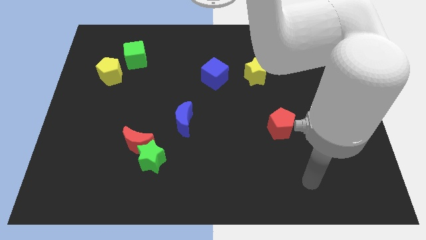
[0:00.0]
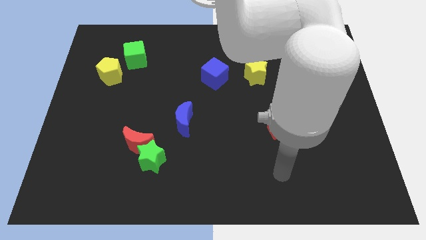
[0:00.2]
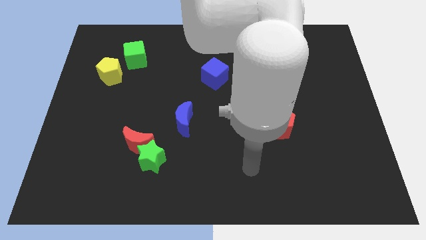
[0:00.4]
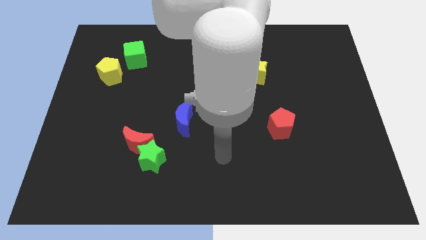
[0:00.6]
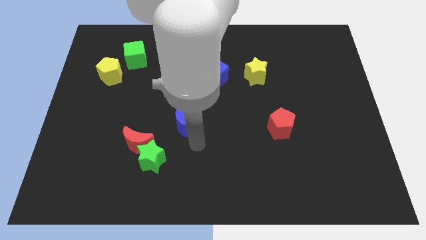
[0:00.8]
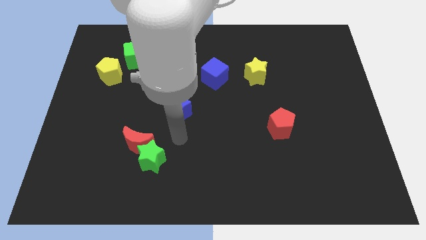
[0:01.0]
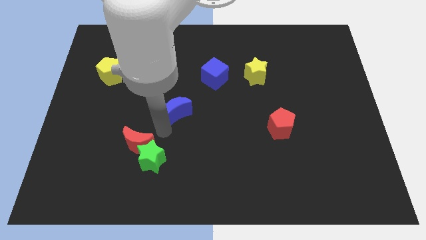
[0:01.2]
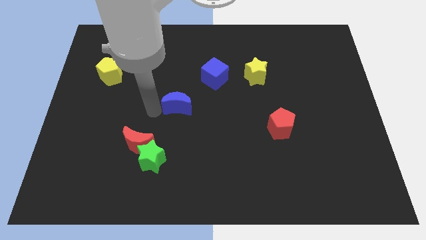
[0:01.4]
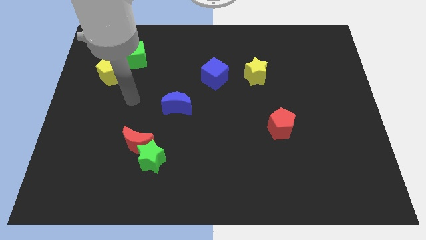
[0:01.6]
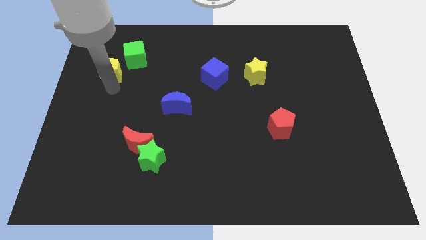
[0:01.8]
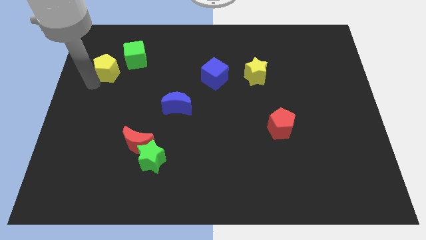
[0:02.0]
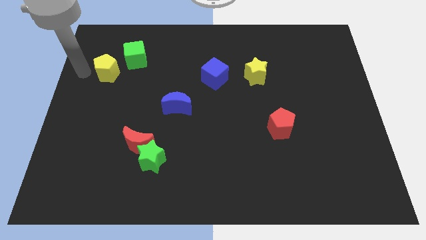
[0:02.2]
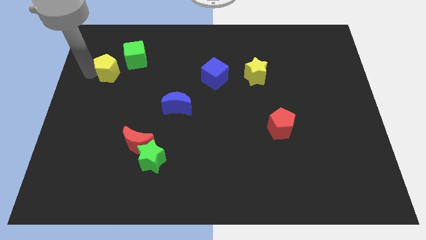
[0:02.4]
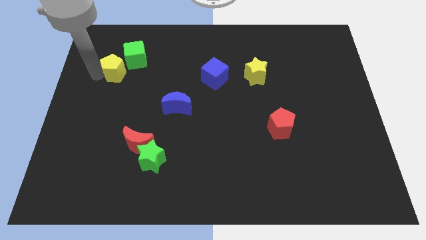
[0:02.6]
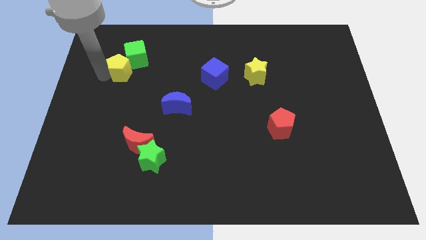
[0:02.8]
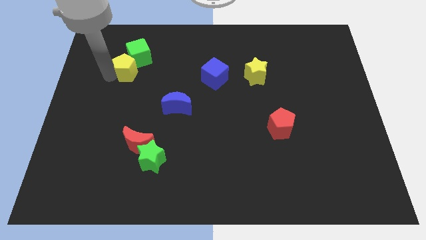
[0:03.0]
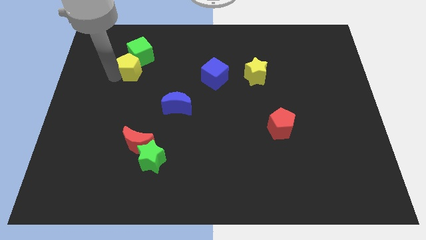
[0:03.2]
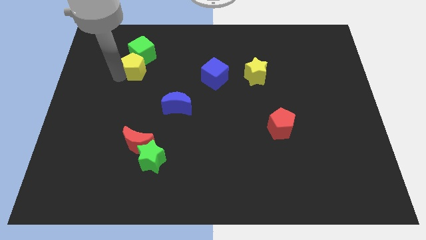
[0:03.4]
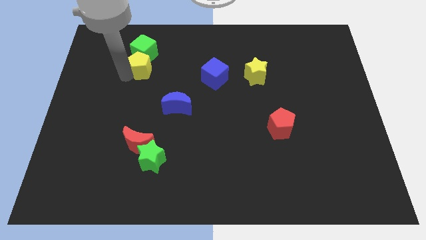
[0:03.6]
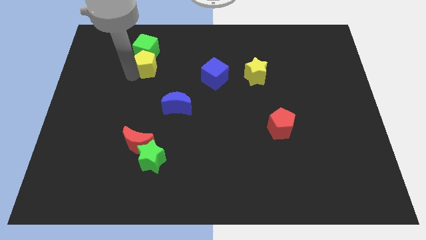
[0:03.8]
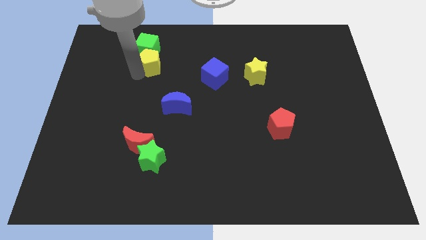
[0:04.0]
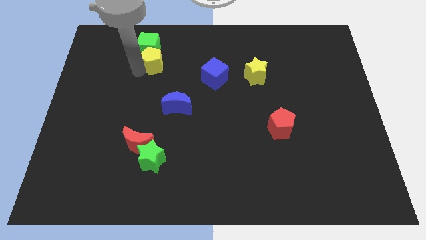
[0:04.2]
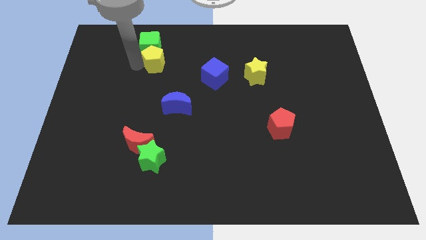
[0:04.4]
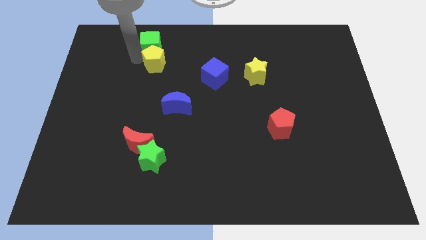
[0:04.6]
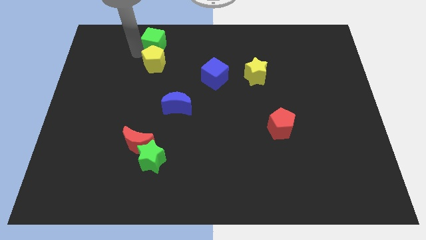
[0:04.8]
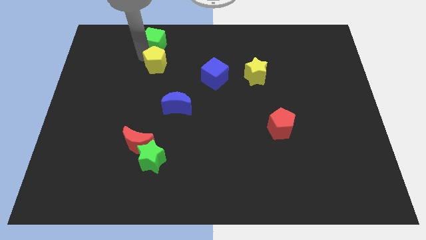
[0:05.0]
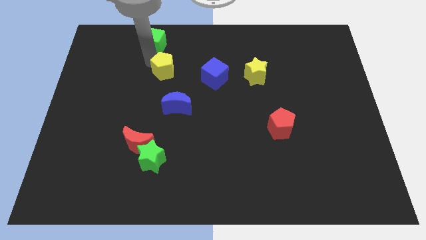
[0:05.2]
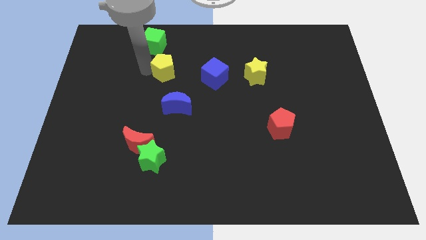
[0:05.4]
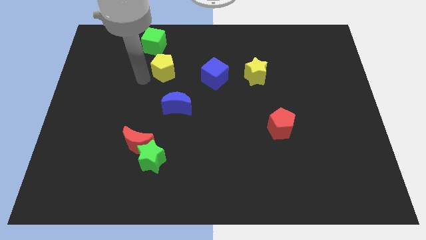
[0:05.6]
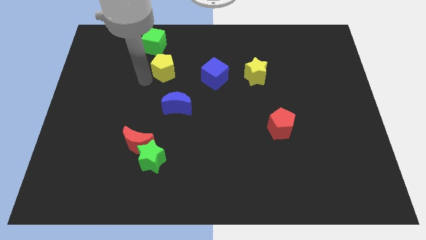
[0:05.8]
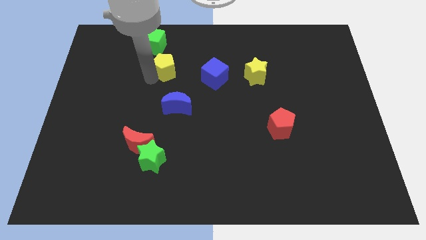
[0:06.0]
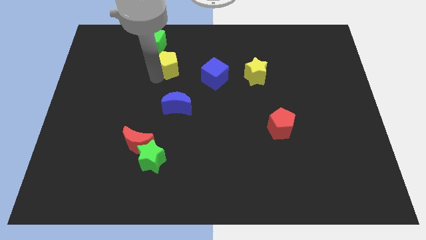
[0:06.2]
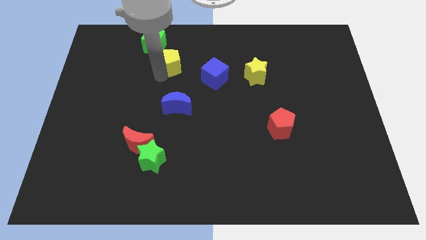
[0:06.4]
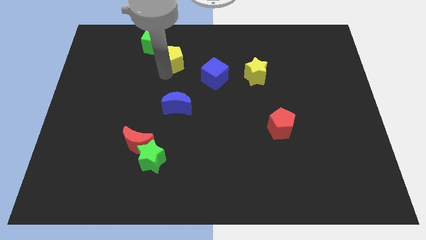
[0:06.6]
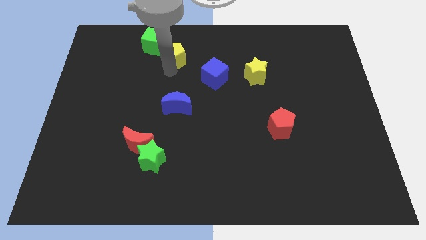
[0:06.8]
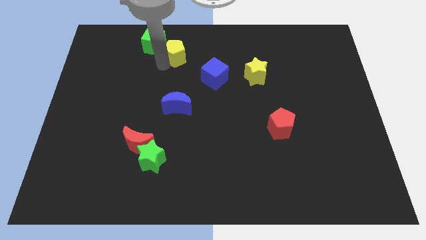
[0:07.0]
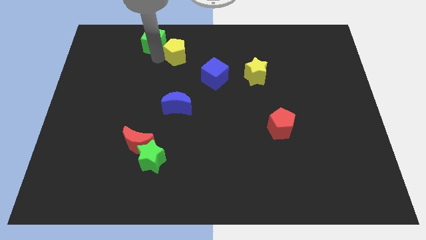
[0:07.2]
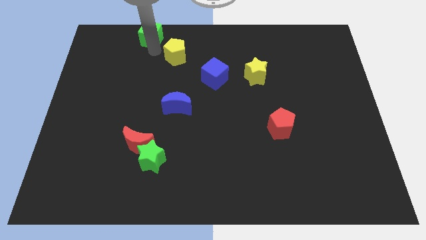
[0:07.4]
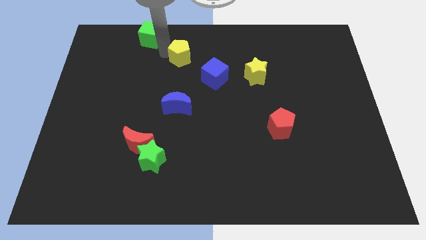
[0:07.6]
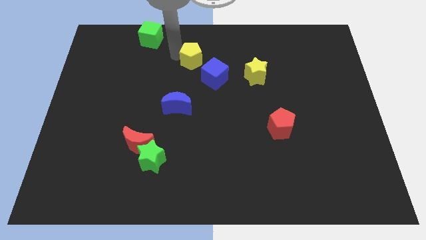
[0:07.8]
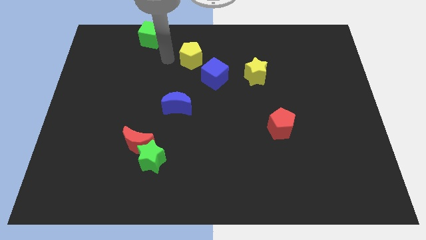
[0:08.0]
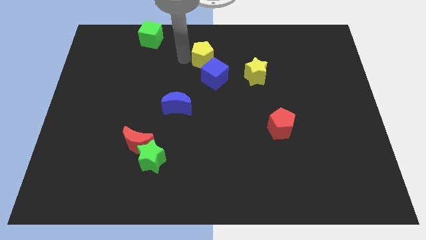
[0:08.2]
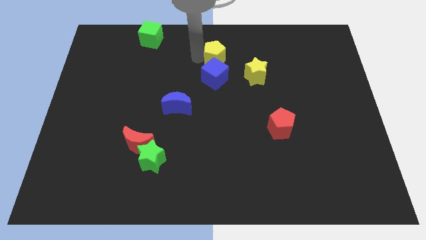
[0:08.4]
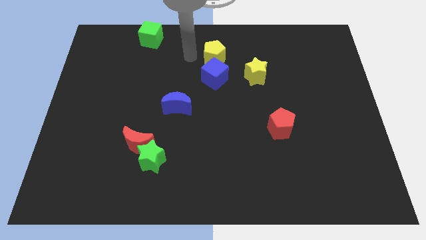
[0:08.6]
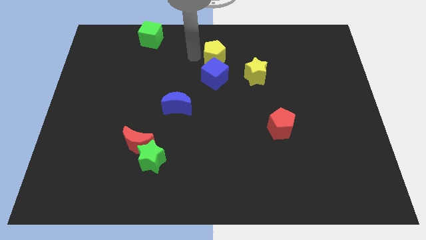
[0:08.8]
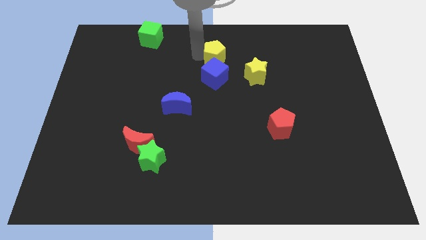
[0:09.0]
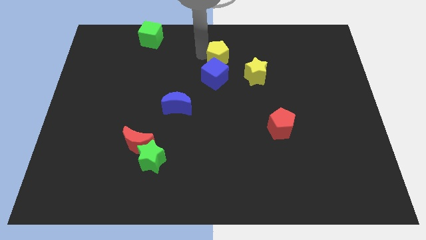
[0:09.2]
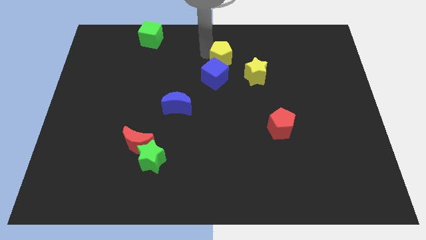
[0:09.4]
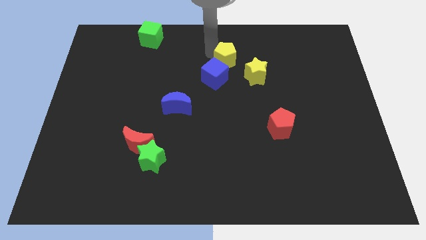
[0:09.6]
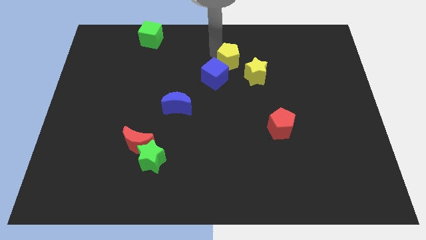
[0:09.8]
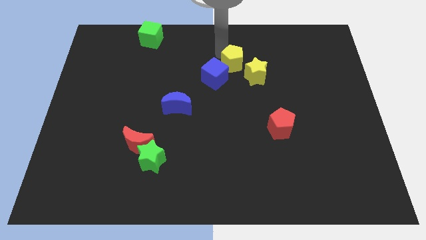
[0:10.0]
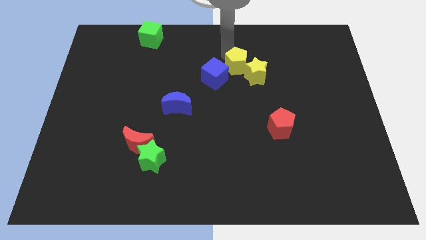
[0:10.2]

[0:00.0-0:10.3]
move the yellow pentagon next to the yellow star
